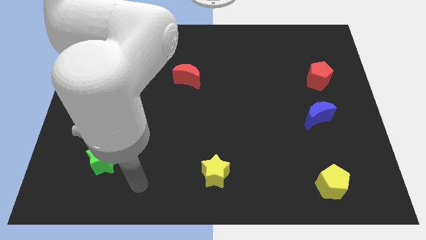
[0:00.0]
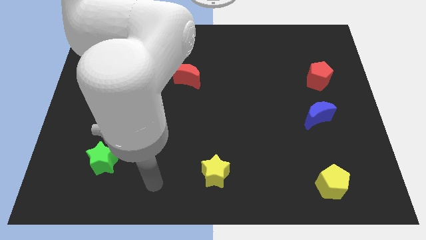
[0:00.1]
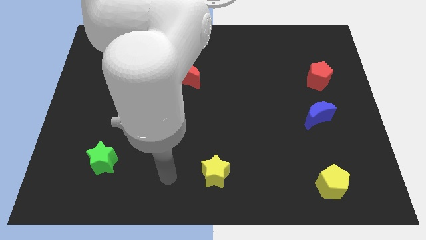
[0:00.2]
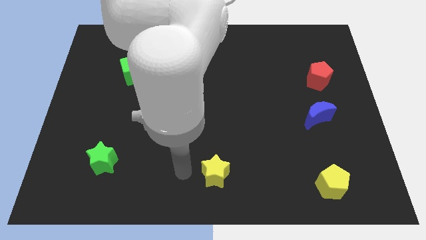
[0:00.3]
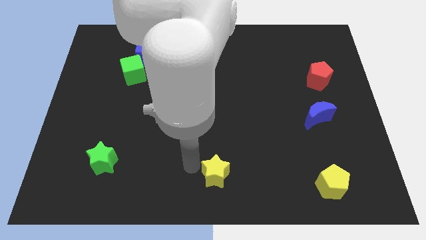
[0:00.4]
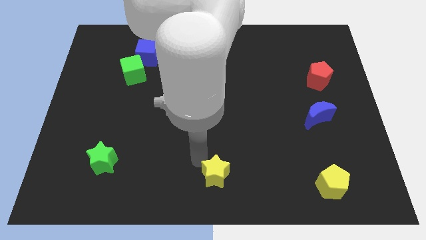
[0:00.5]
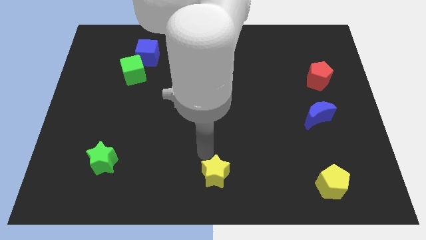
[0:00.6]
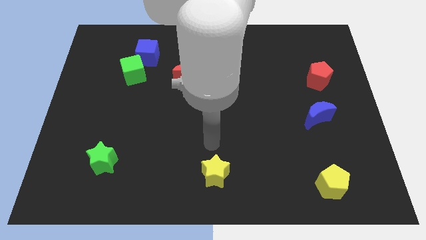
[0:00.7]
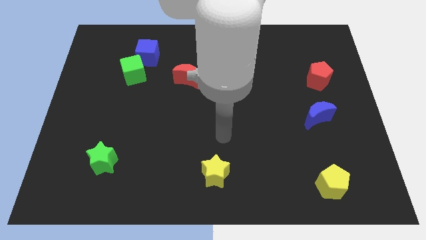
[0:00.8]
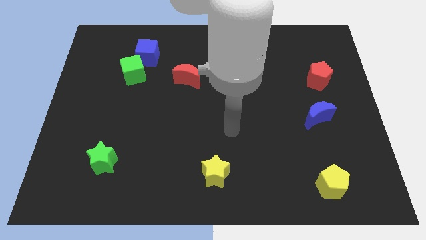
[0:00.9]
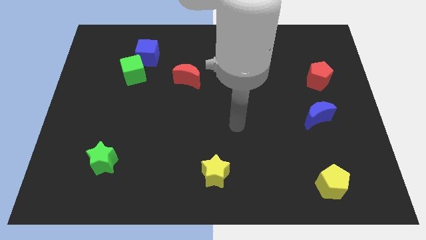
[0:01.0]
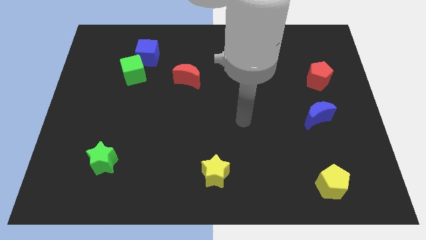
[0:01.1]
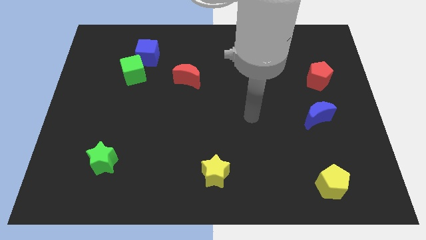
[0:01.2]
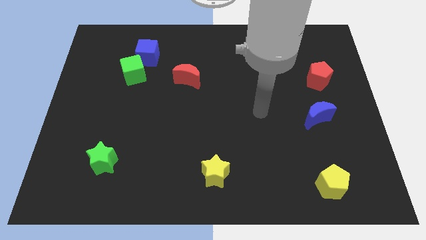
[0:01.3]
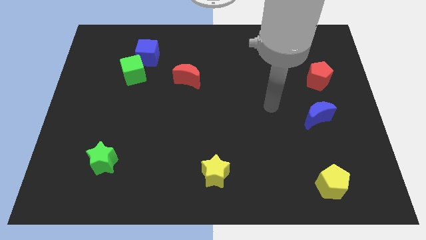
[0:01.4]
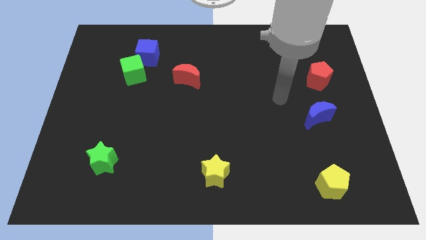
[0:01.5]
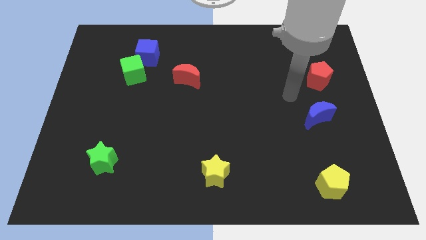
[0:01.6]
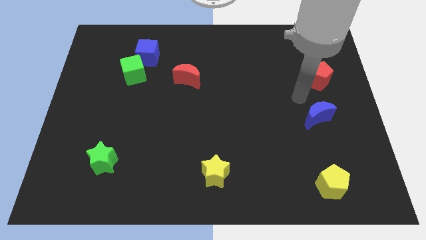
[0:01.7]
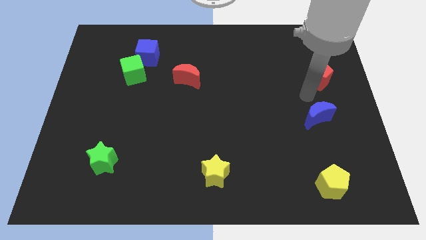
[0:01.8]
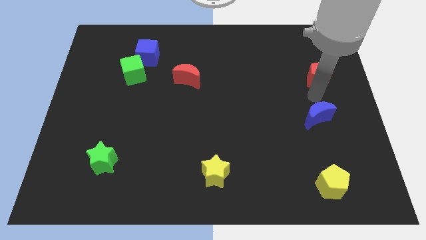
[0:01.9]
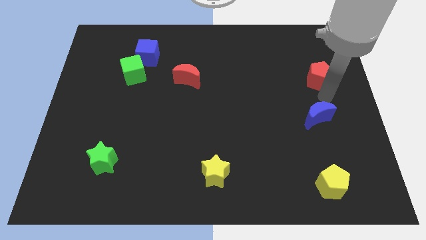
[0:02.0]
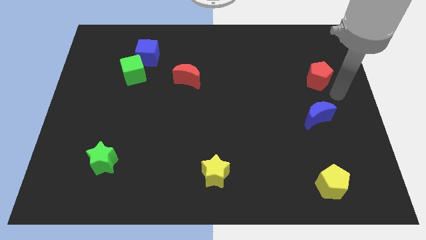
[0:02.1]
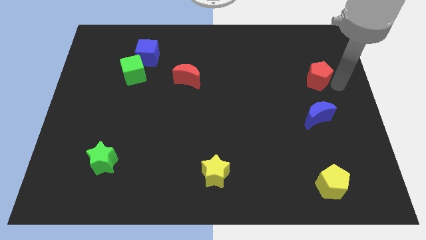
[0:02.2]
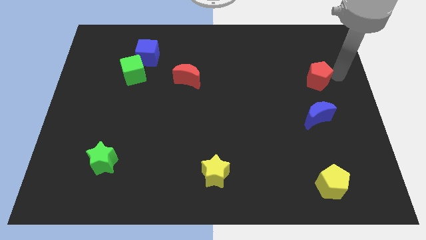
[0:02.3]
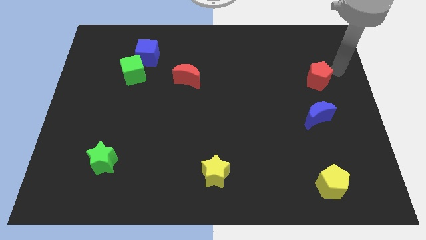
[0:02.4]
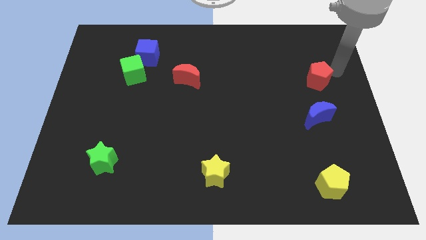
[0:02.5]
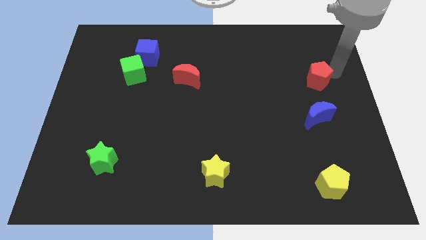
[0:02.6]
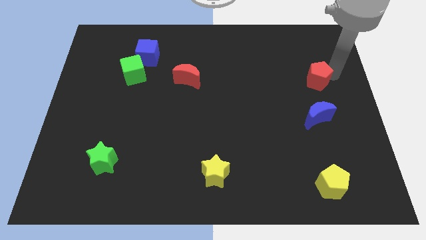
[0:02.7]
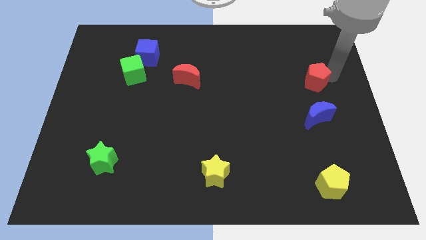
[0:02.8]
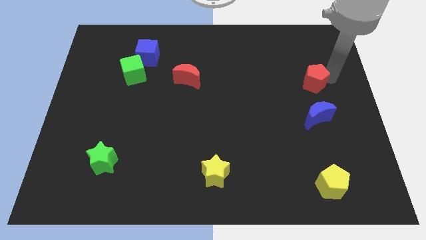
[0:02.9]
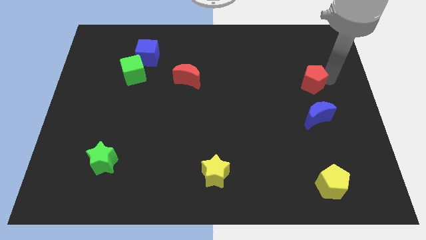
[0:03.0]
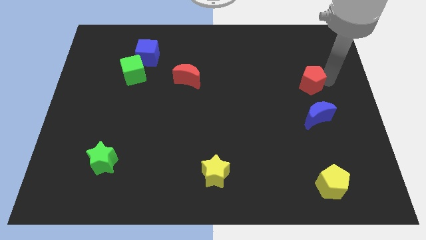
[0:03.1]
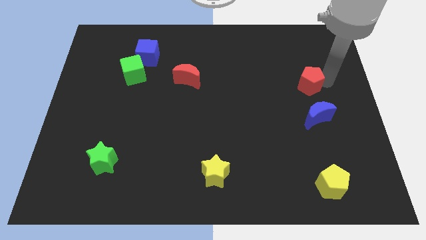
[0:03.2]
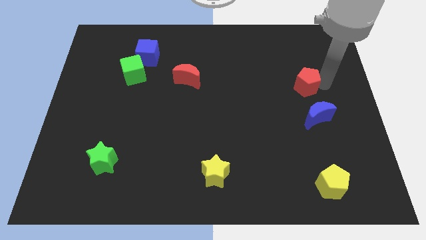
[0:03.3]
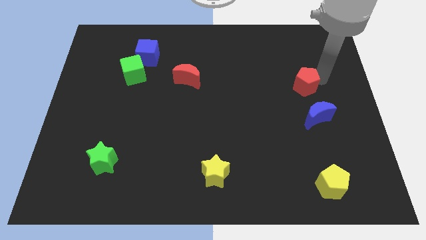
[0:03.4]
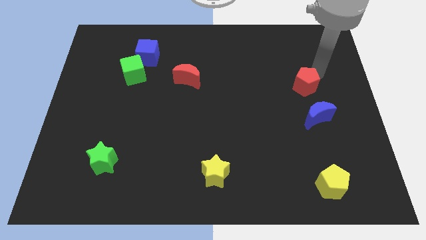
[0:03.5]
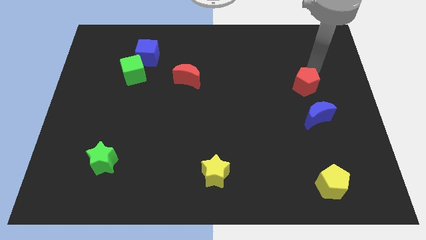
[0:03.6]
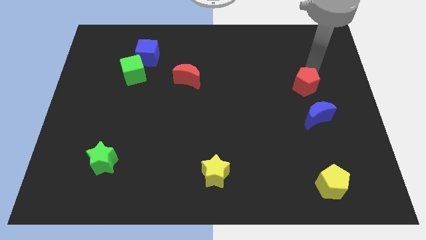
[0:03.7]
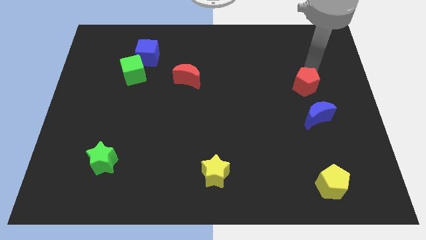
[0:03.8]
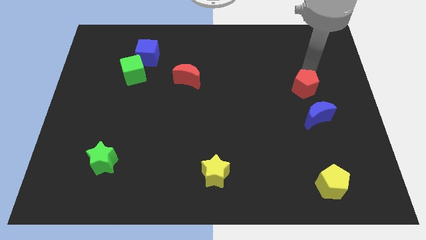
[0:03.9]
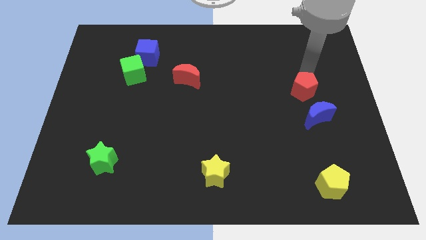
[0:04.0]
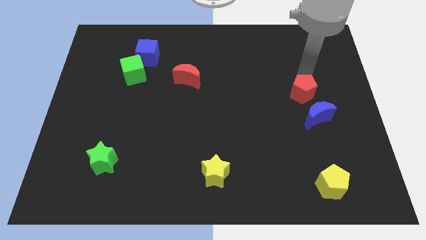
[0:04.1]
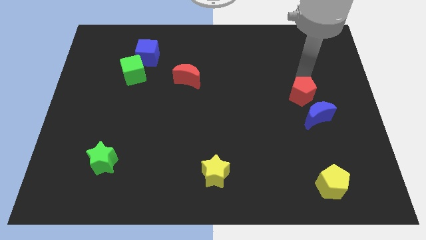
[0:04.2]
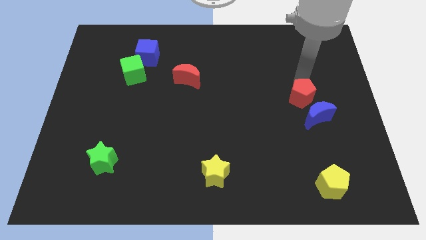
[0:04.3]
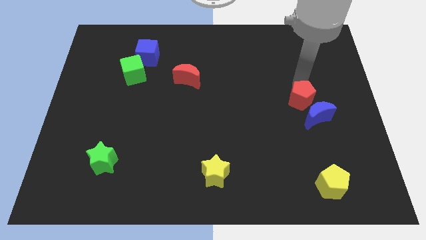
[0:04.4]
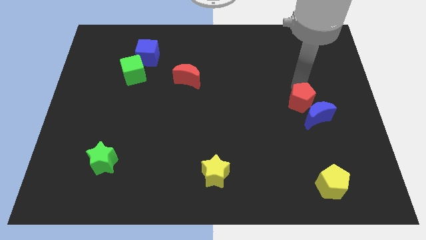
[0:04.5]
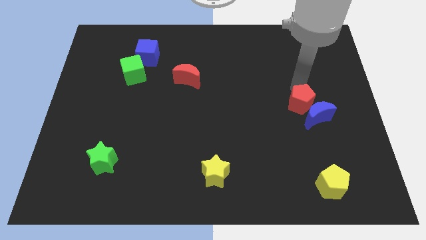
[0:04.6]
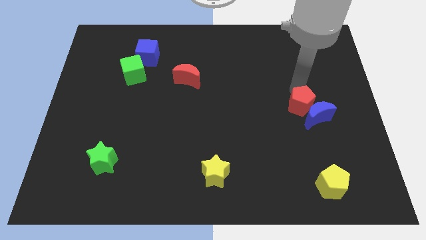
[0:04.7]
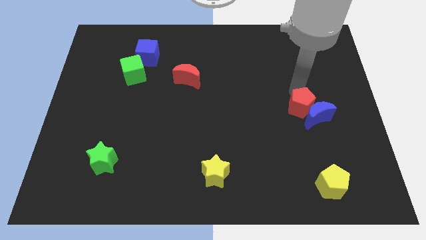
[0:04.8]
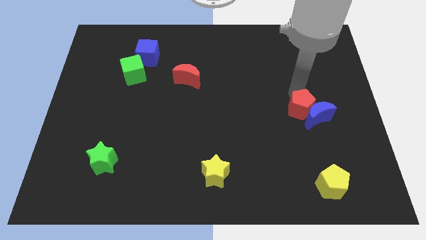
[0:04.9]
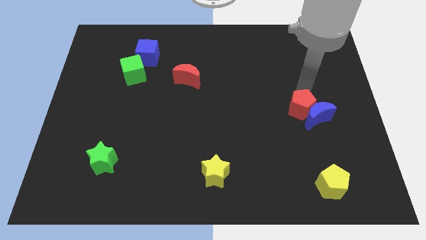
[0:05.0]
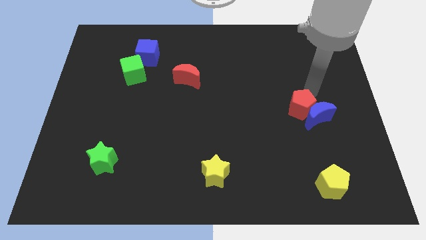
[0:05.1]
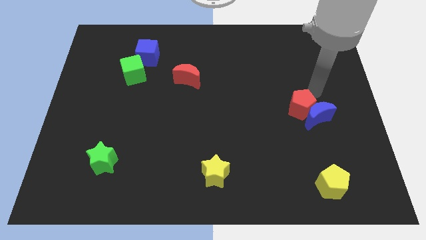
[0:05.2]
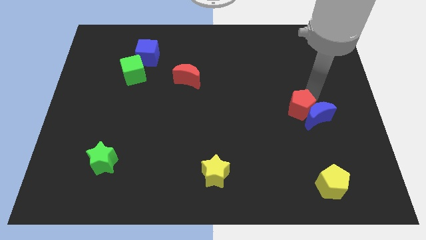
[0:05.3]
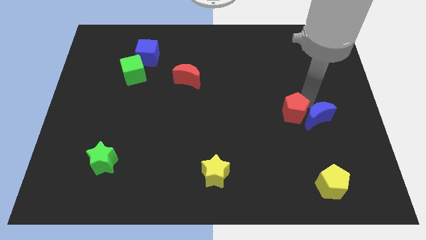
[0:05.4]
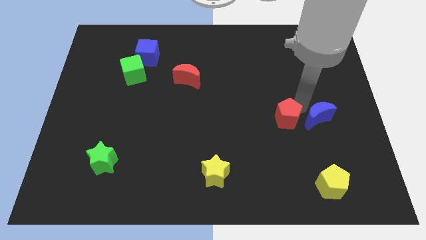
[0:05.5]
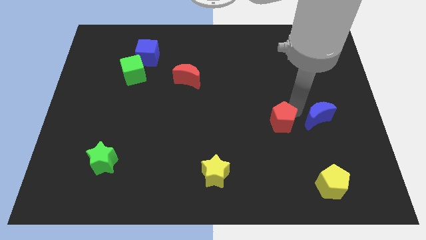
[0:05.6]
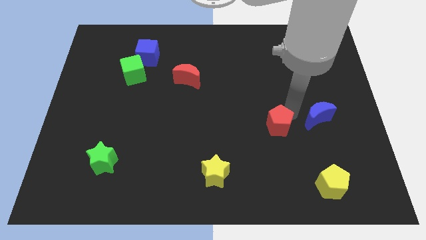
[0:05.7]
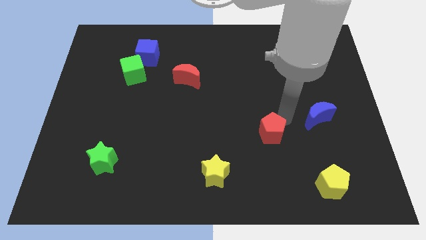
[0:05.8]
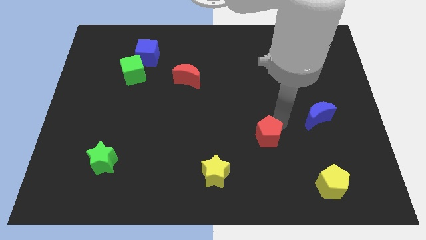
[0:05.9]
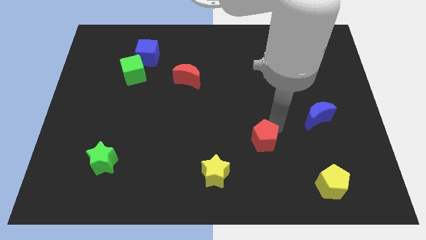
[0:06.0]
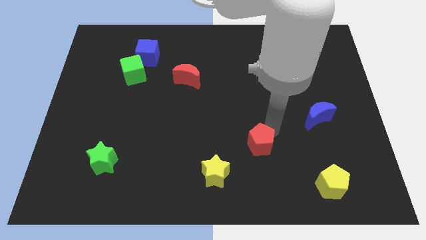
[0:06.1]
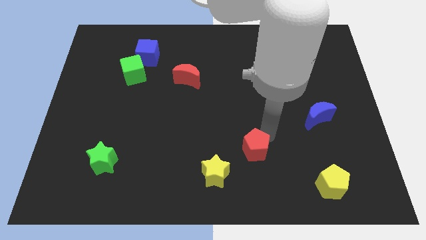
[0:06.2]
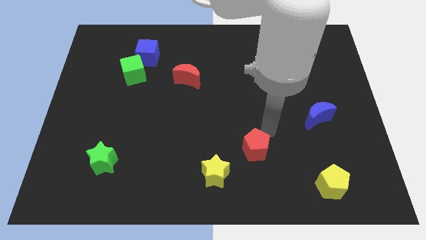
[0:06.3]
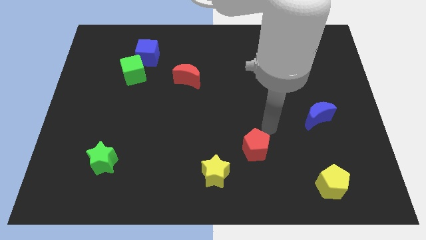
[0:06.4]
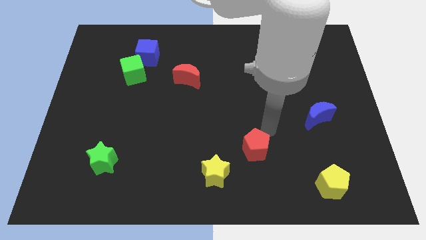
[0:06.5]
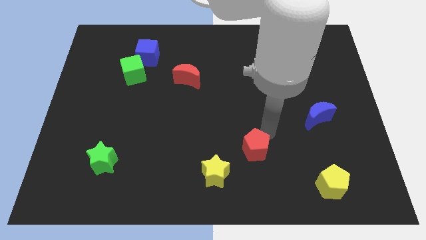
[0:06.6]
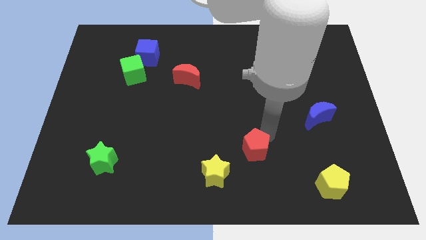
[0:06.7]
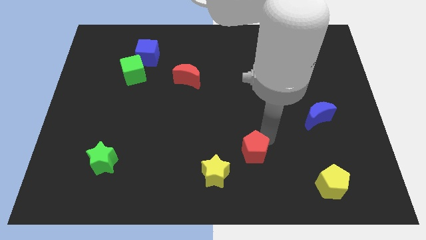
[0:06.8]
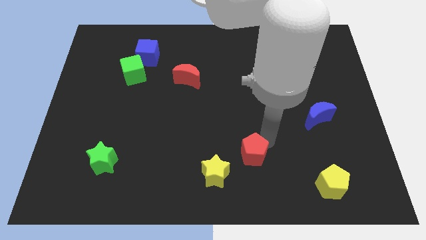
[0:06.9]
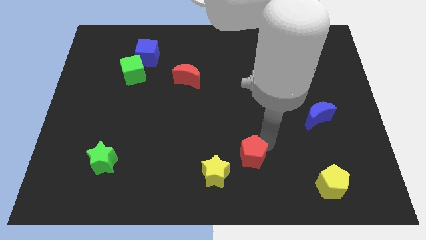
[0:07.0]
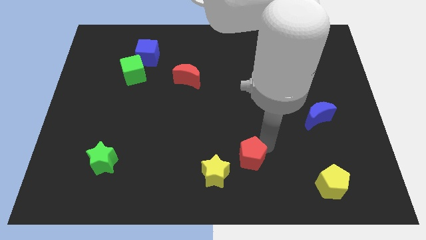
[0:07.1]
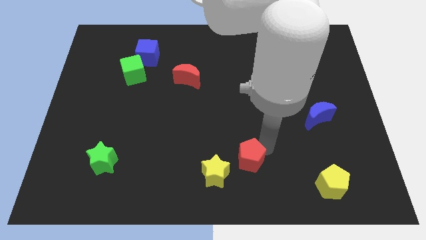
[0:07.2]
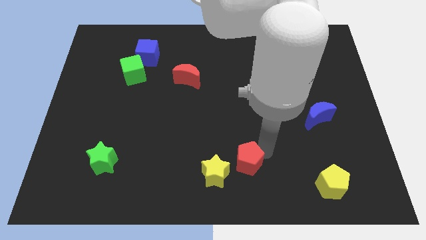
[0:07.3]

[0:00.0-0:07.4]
push the red pentagon to the bottom
